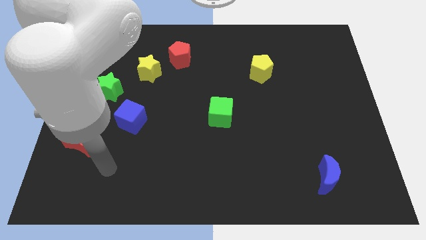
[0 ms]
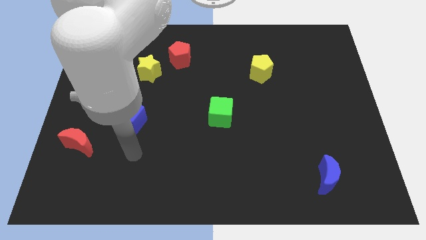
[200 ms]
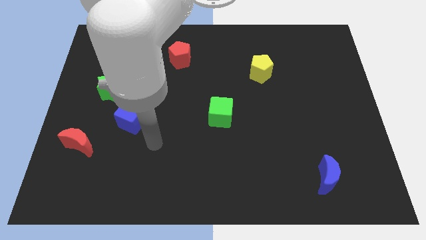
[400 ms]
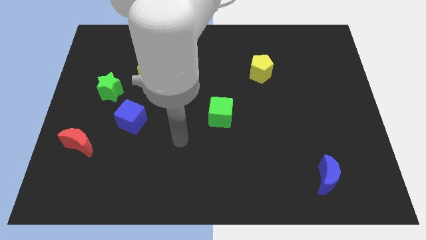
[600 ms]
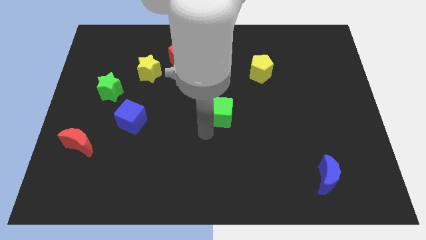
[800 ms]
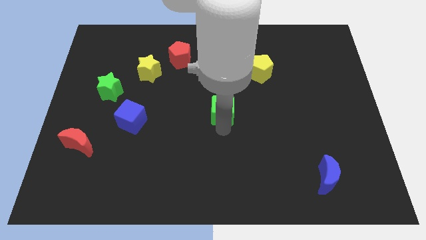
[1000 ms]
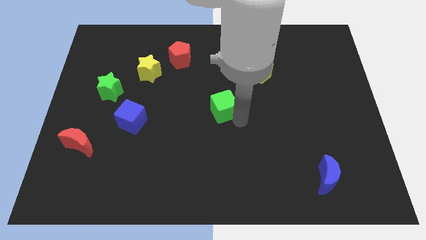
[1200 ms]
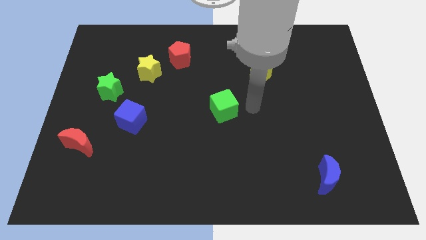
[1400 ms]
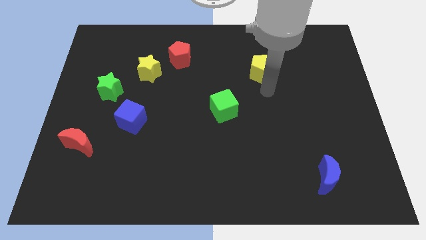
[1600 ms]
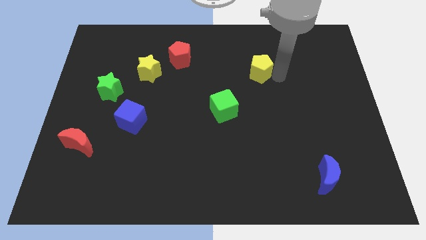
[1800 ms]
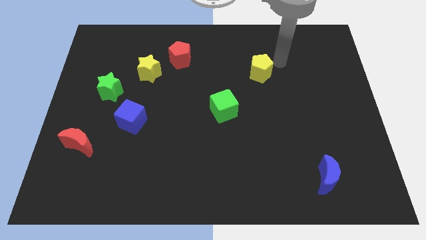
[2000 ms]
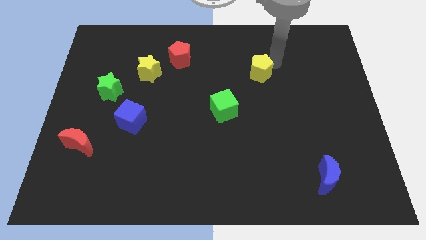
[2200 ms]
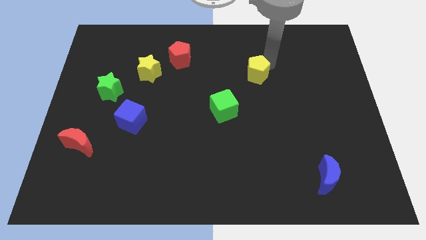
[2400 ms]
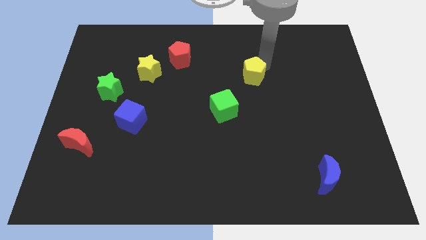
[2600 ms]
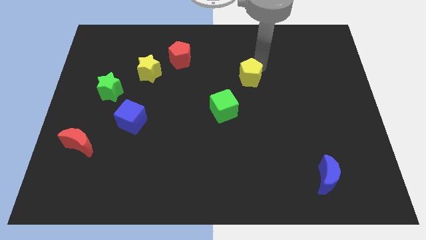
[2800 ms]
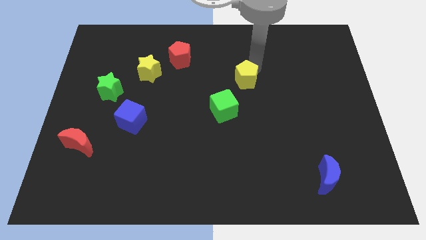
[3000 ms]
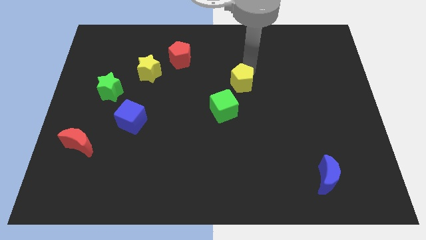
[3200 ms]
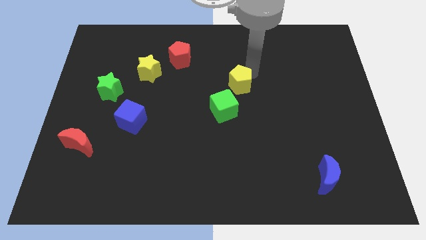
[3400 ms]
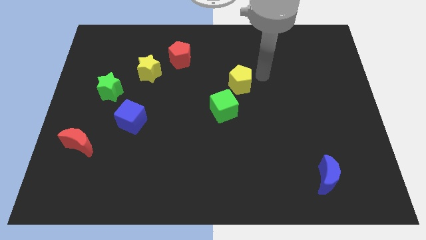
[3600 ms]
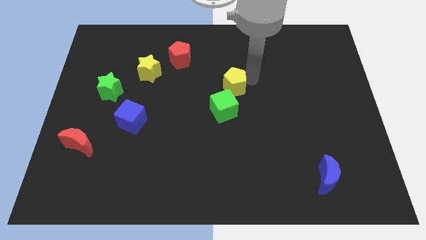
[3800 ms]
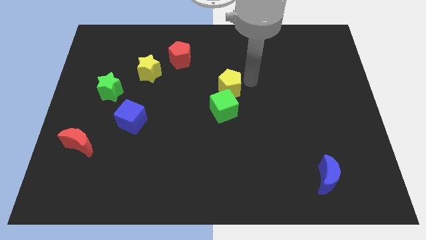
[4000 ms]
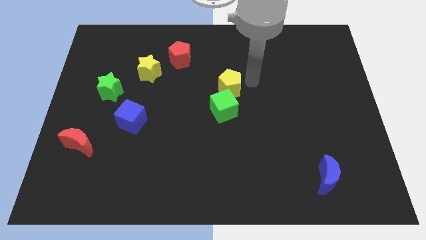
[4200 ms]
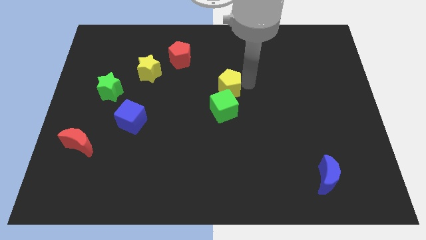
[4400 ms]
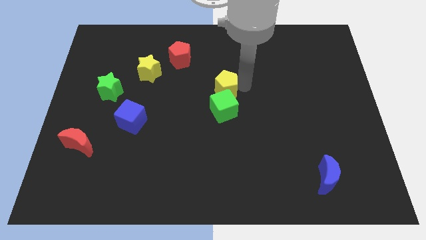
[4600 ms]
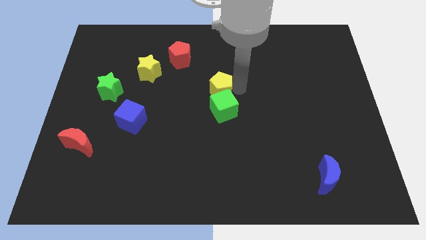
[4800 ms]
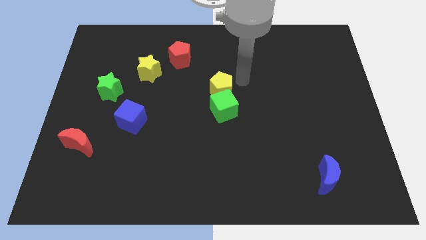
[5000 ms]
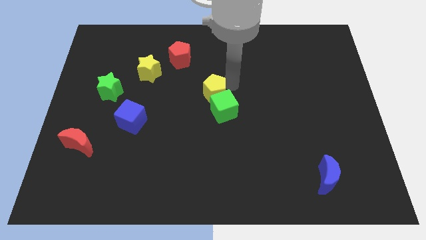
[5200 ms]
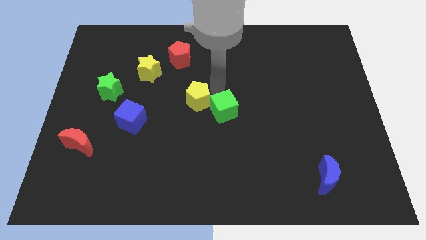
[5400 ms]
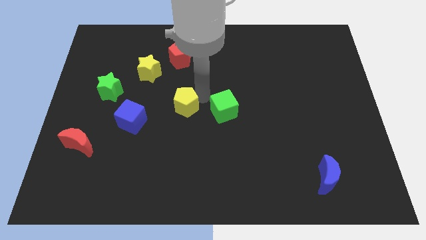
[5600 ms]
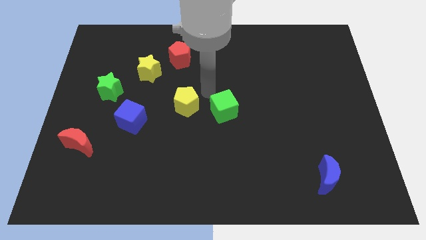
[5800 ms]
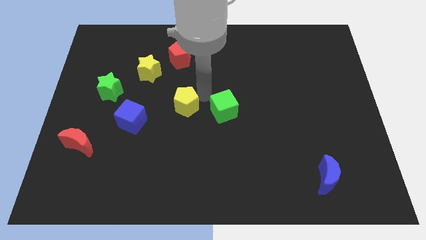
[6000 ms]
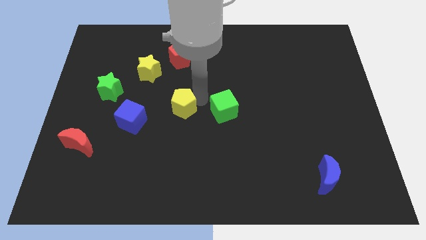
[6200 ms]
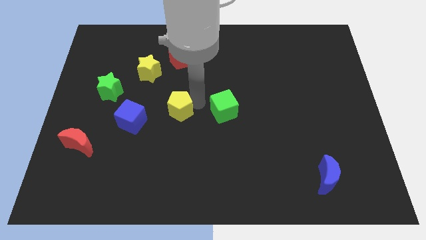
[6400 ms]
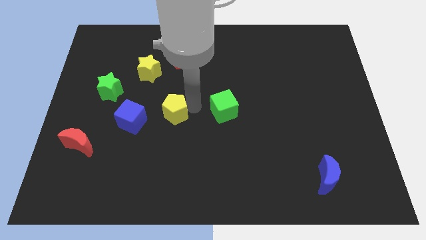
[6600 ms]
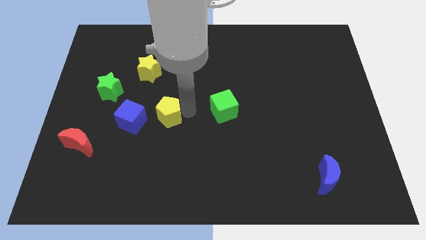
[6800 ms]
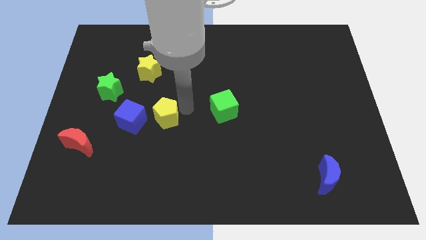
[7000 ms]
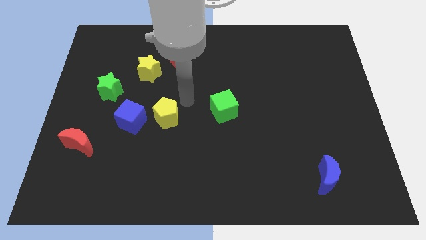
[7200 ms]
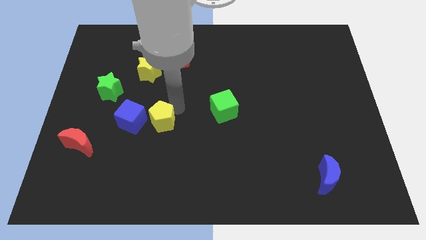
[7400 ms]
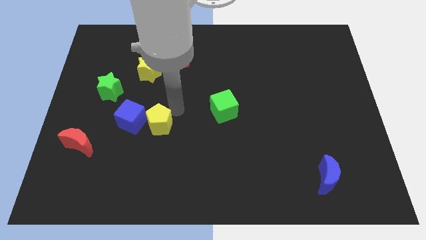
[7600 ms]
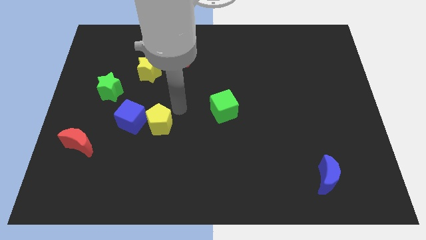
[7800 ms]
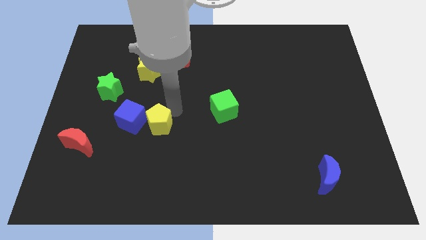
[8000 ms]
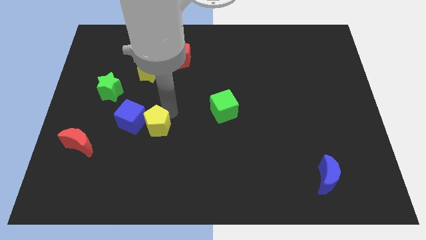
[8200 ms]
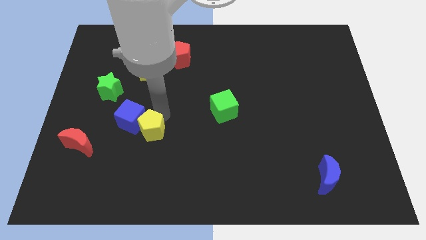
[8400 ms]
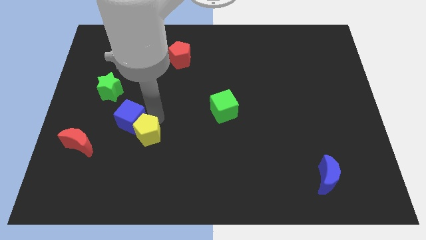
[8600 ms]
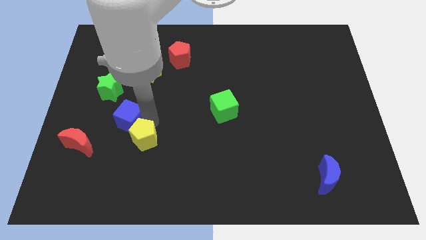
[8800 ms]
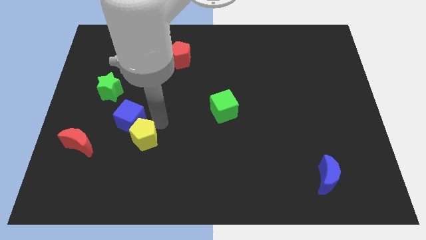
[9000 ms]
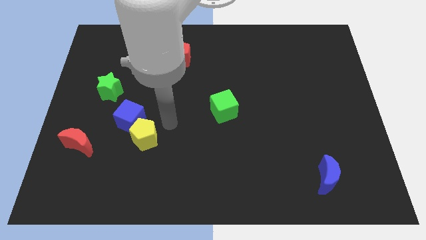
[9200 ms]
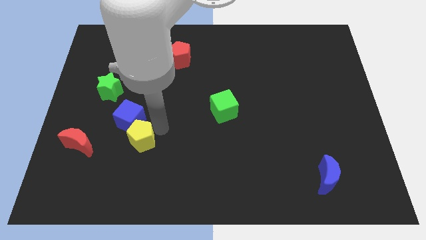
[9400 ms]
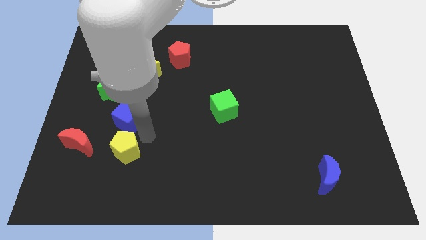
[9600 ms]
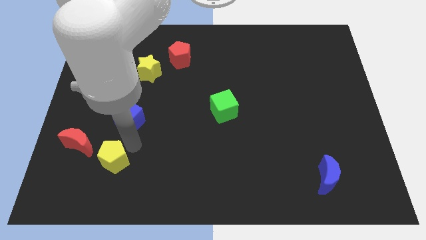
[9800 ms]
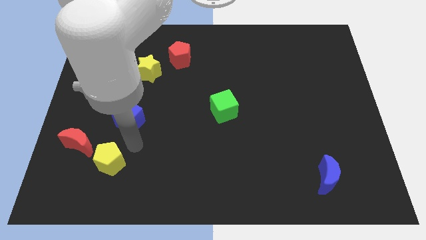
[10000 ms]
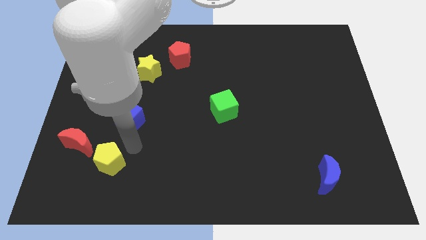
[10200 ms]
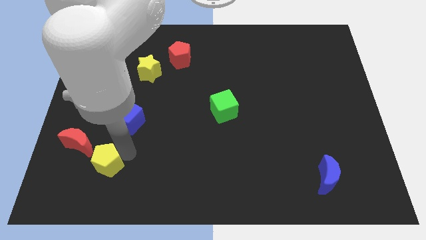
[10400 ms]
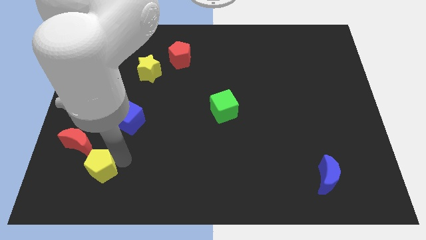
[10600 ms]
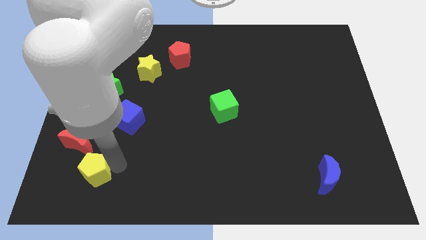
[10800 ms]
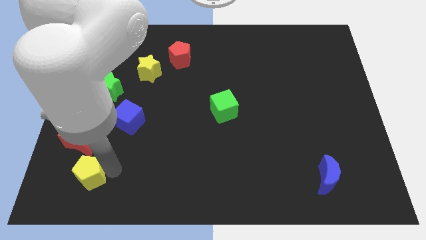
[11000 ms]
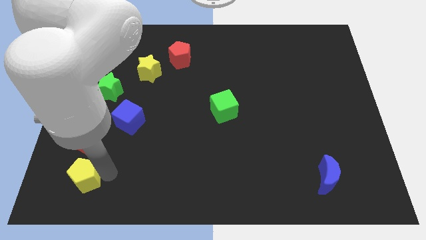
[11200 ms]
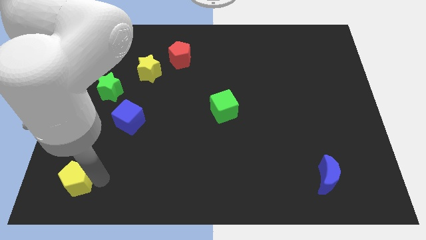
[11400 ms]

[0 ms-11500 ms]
slide the yellow pentagon to the lower left corner
